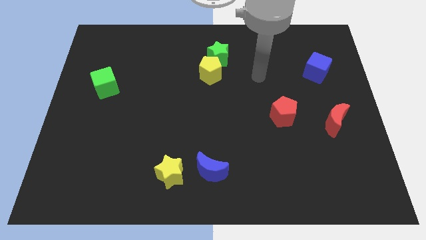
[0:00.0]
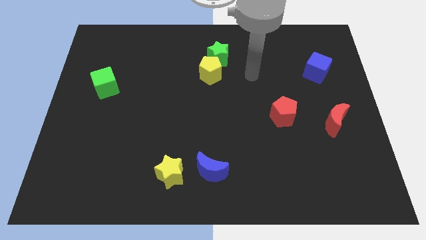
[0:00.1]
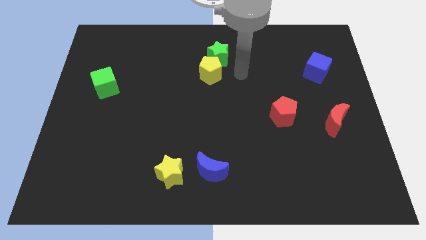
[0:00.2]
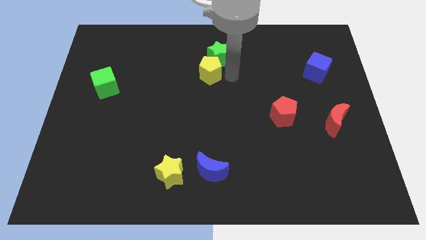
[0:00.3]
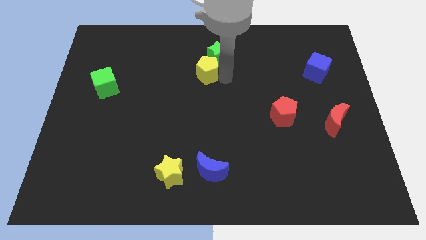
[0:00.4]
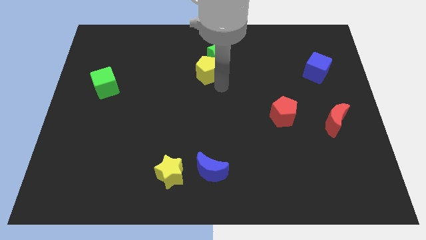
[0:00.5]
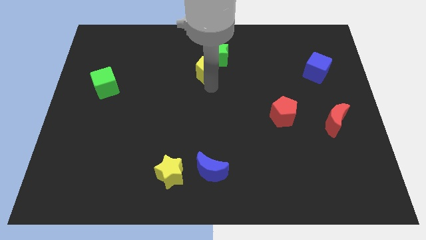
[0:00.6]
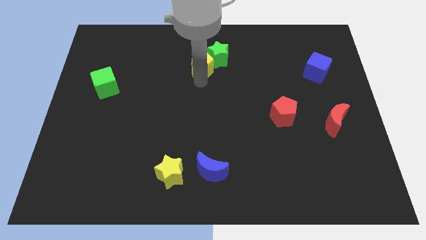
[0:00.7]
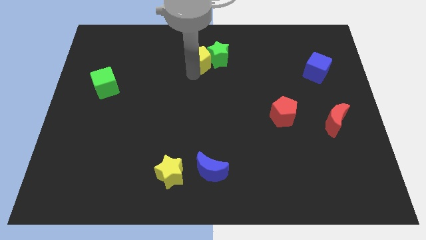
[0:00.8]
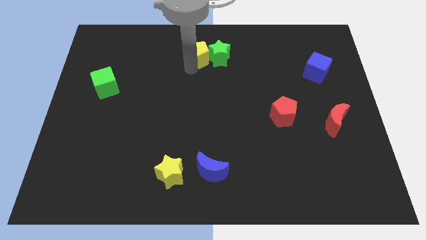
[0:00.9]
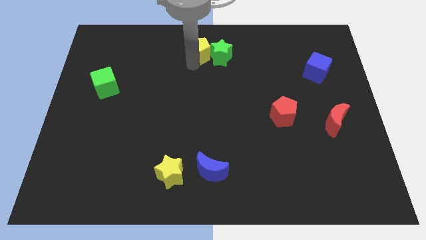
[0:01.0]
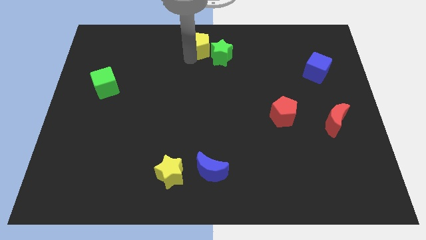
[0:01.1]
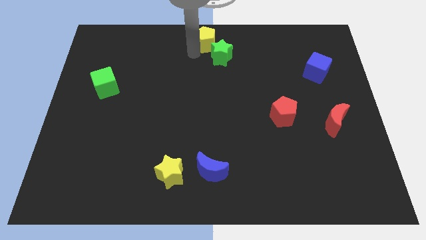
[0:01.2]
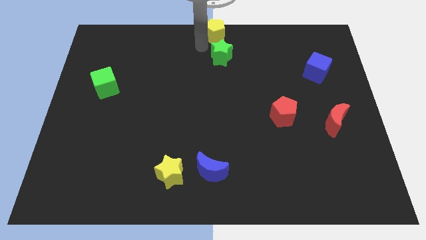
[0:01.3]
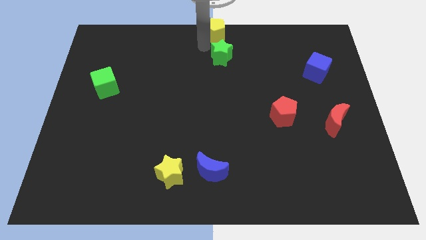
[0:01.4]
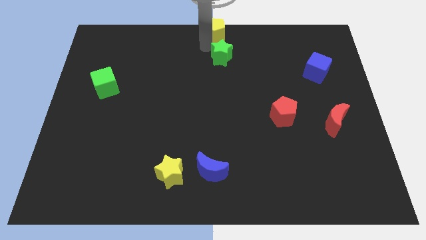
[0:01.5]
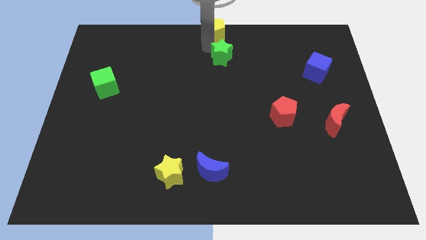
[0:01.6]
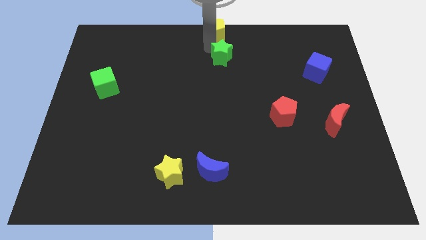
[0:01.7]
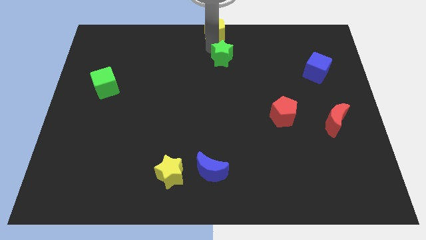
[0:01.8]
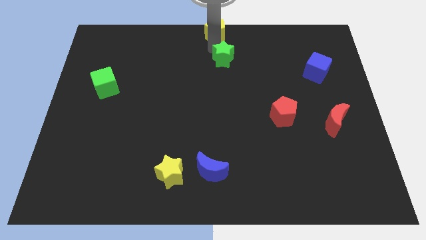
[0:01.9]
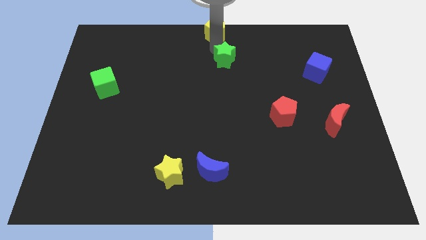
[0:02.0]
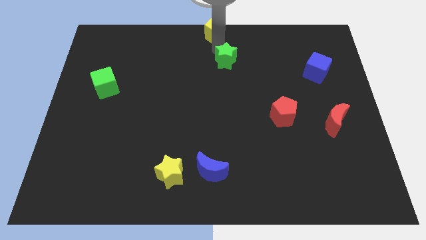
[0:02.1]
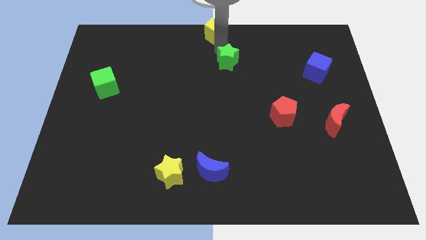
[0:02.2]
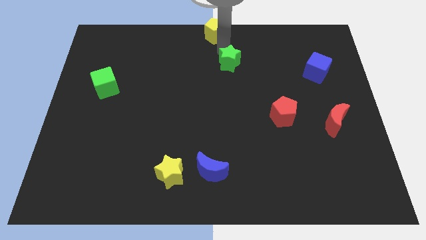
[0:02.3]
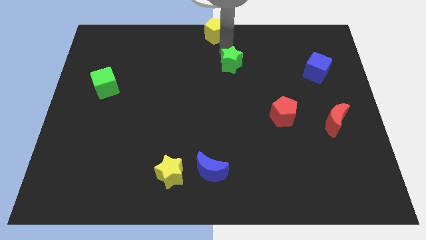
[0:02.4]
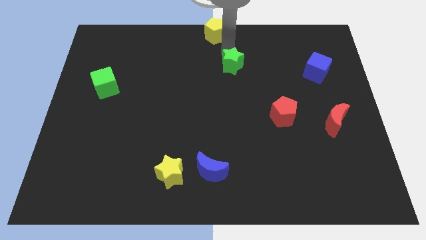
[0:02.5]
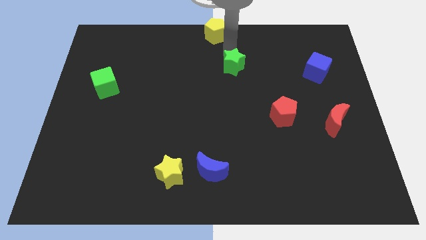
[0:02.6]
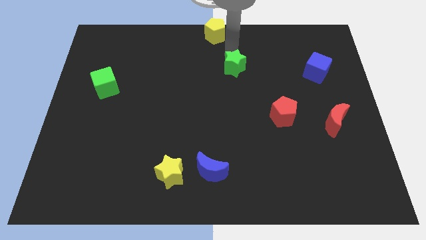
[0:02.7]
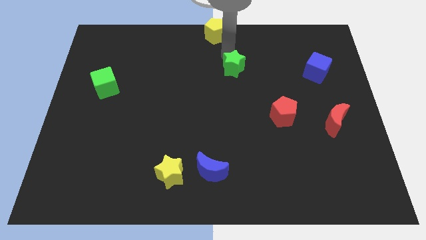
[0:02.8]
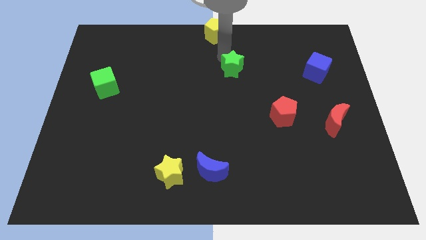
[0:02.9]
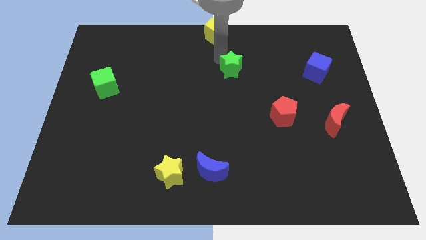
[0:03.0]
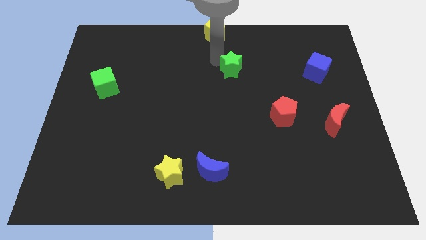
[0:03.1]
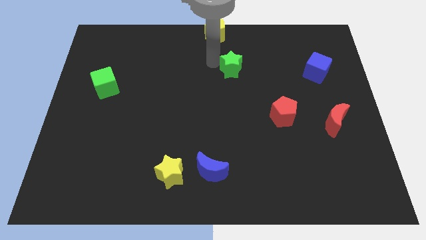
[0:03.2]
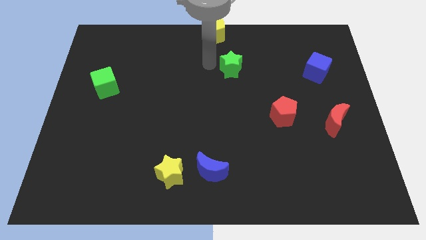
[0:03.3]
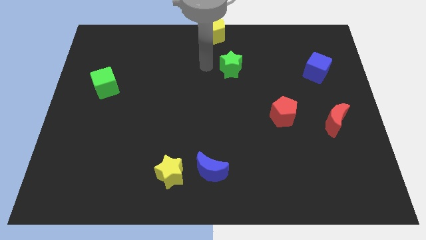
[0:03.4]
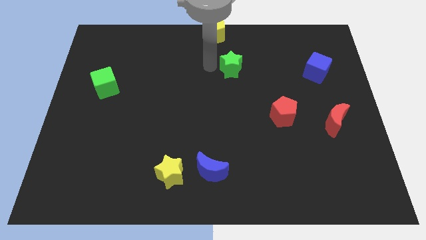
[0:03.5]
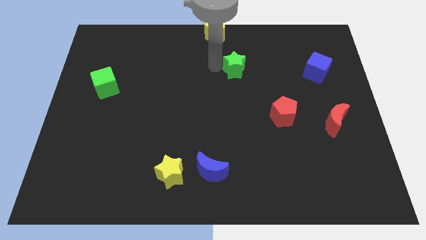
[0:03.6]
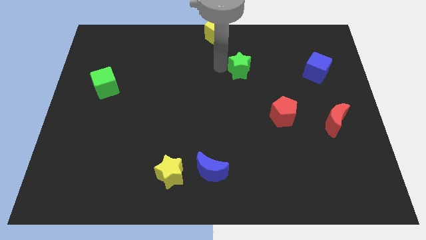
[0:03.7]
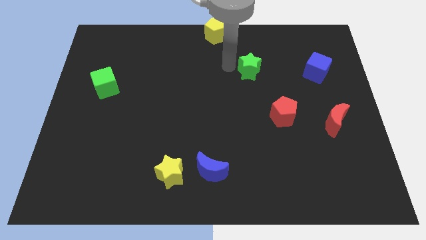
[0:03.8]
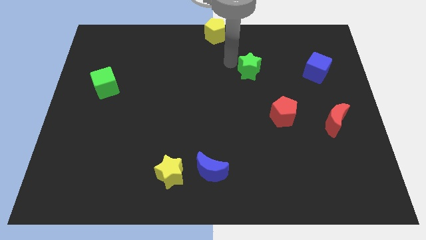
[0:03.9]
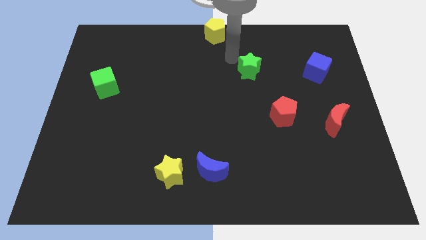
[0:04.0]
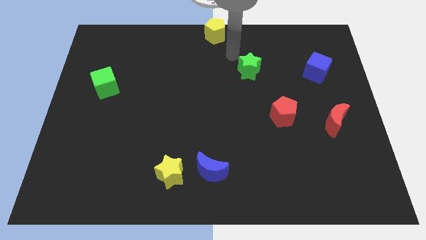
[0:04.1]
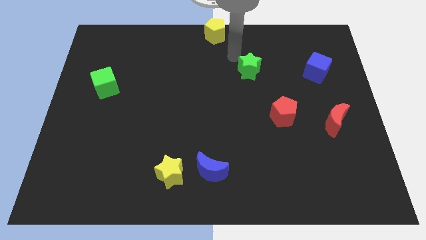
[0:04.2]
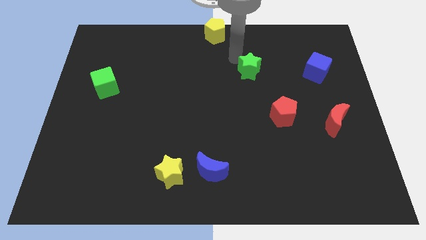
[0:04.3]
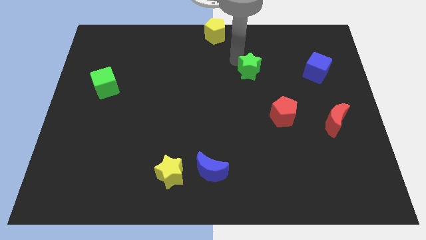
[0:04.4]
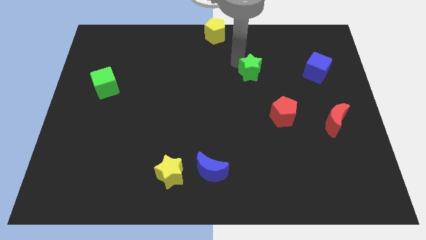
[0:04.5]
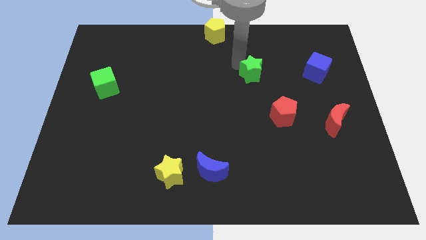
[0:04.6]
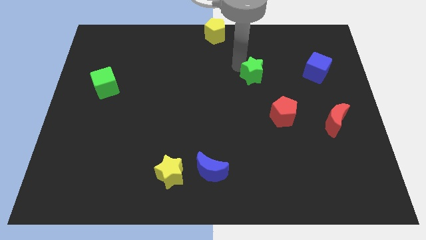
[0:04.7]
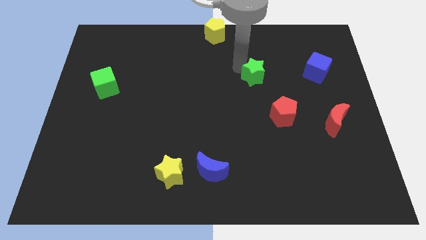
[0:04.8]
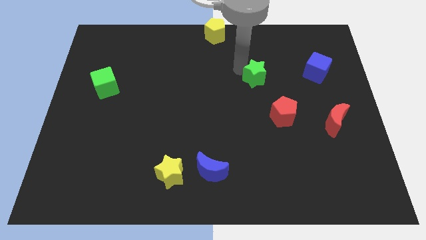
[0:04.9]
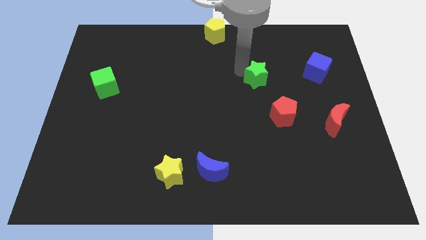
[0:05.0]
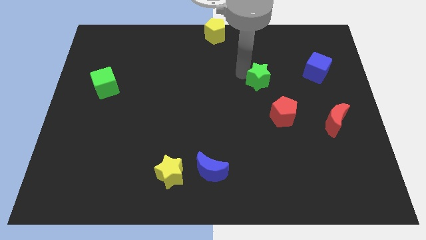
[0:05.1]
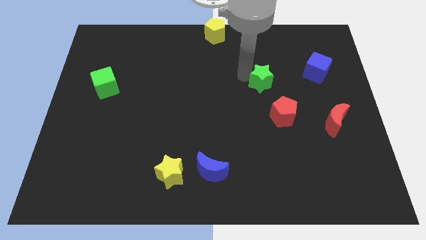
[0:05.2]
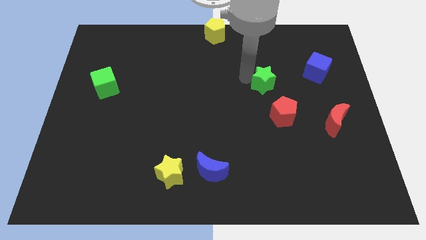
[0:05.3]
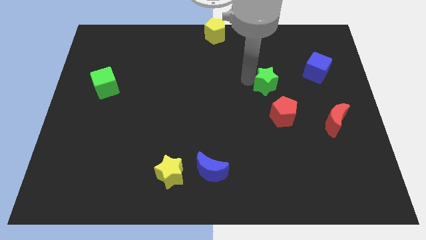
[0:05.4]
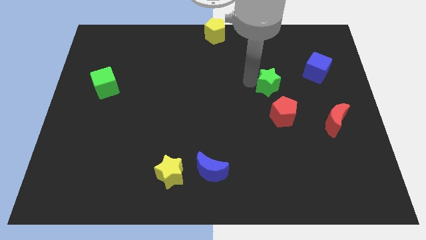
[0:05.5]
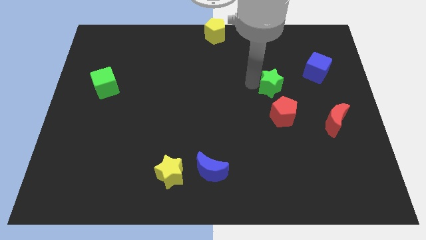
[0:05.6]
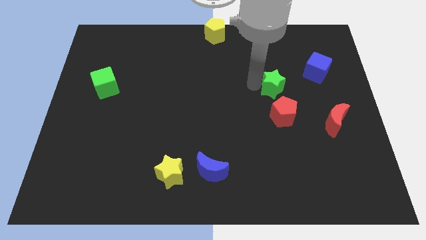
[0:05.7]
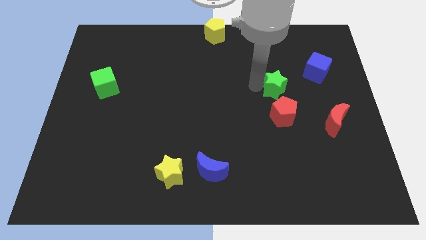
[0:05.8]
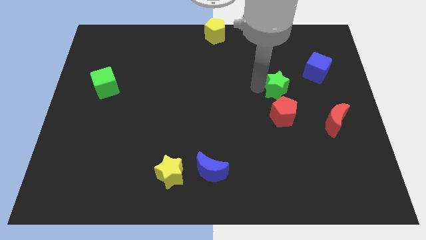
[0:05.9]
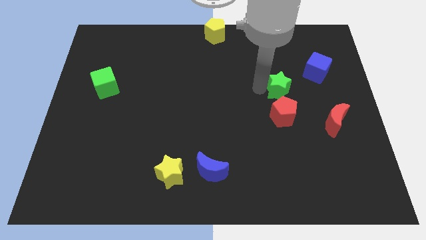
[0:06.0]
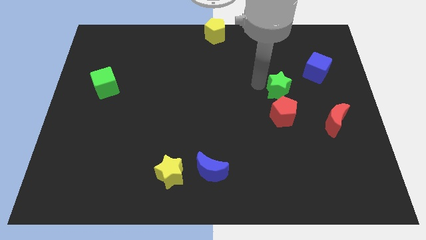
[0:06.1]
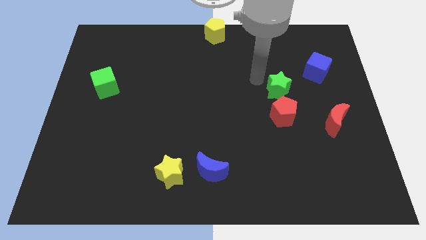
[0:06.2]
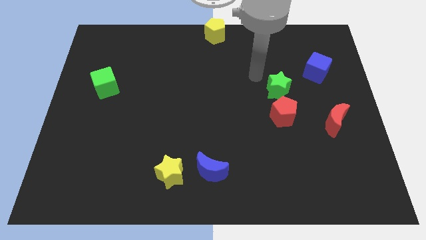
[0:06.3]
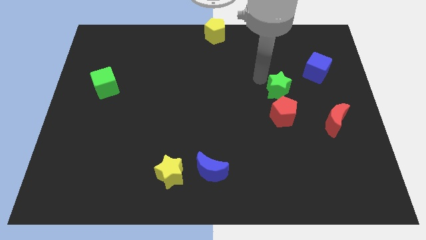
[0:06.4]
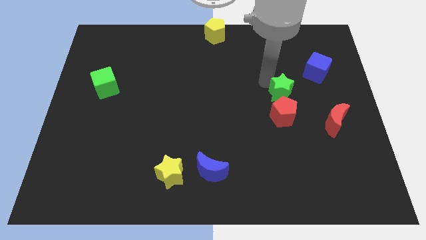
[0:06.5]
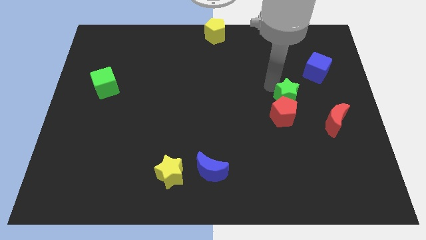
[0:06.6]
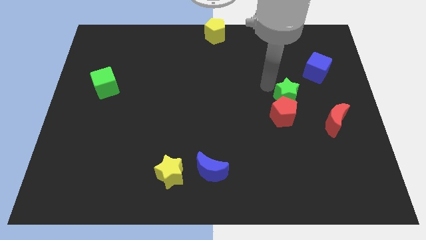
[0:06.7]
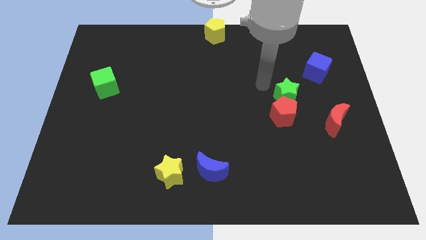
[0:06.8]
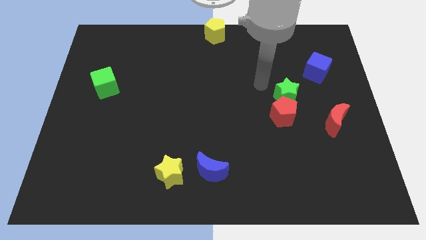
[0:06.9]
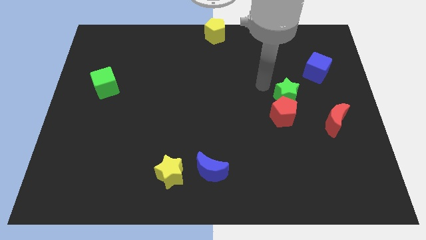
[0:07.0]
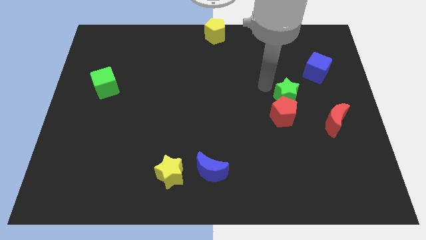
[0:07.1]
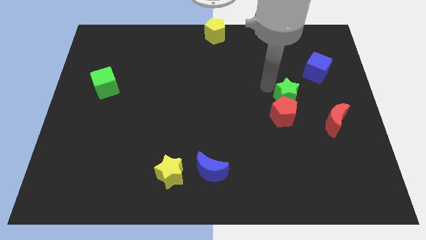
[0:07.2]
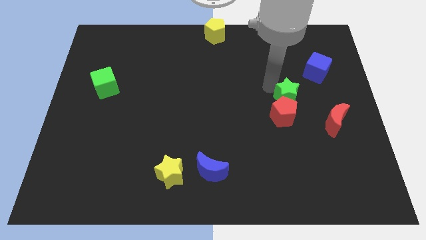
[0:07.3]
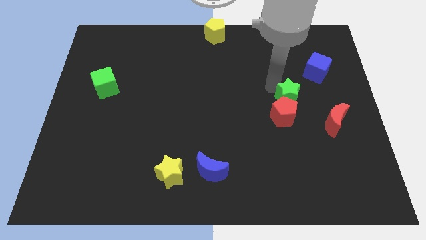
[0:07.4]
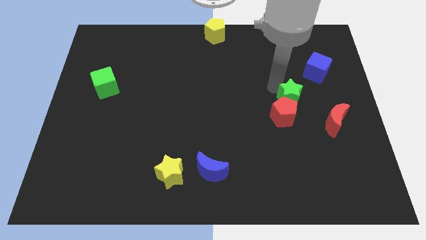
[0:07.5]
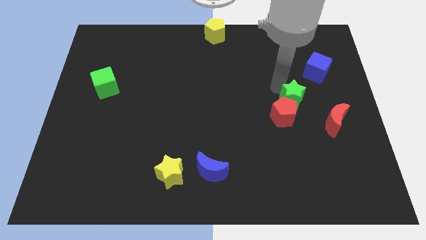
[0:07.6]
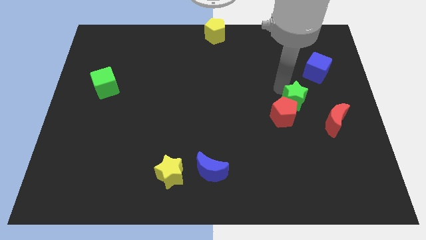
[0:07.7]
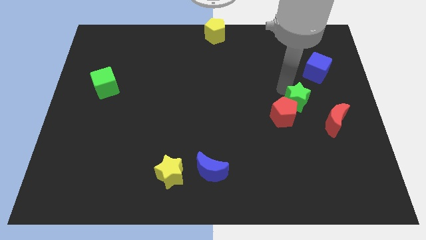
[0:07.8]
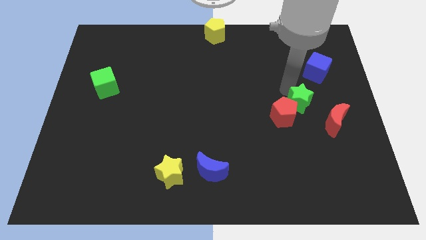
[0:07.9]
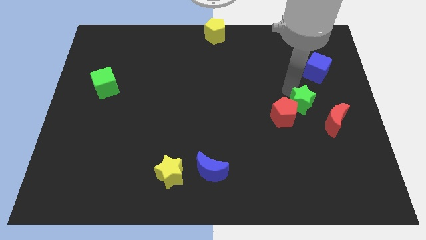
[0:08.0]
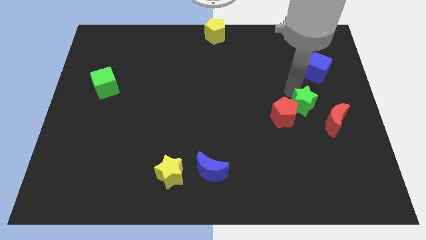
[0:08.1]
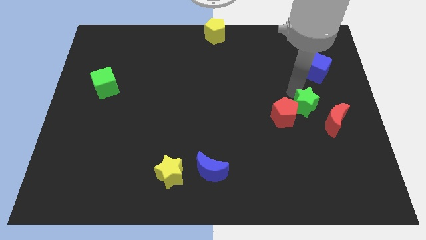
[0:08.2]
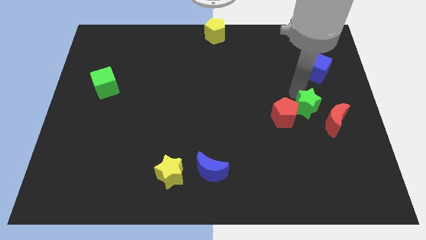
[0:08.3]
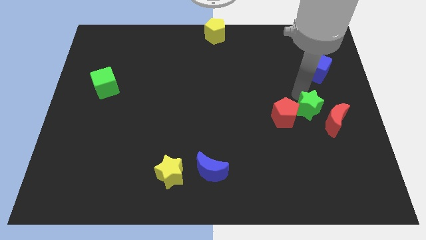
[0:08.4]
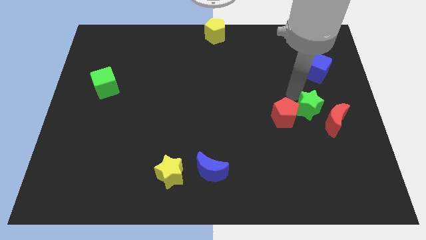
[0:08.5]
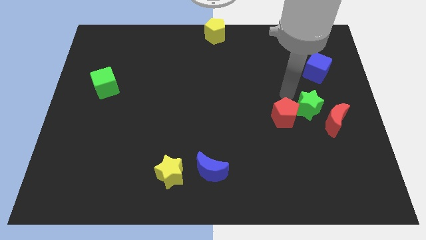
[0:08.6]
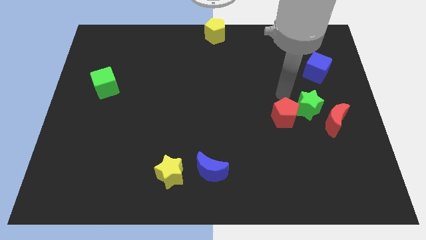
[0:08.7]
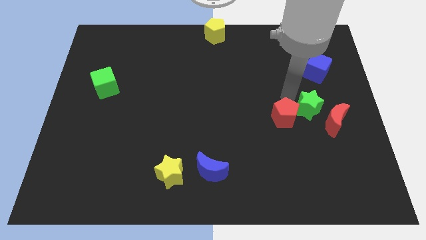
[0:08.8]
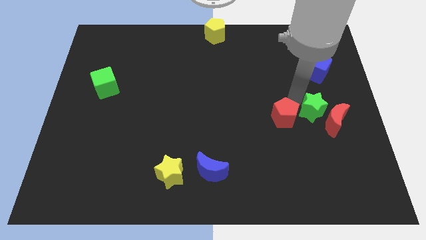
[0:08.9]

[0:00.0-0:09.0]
put the green star towards the red moon
